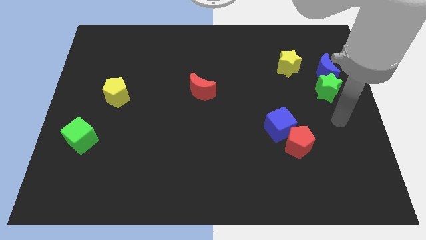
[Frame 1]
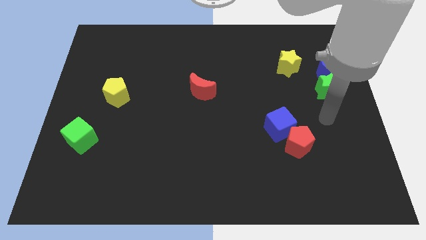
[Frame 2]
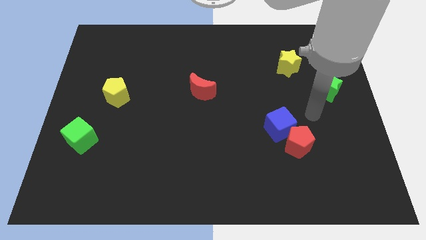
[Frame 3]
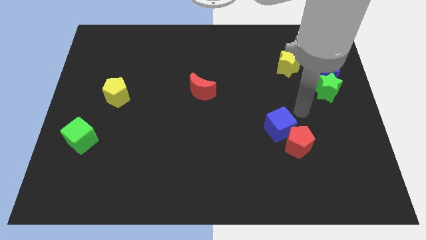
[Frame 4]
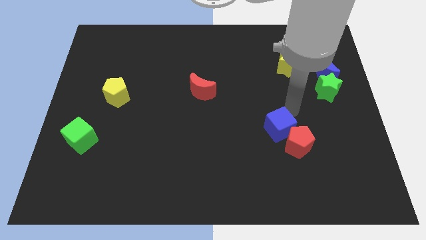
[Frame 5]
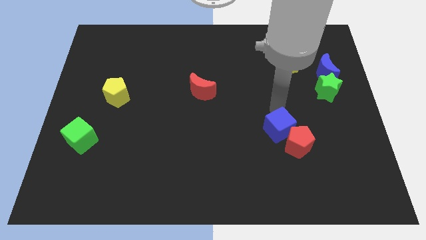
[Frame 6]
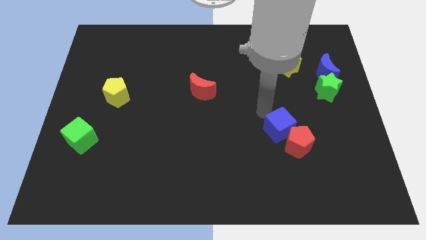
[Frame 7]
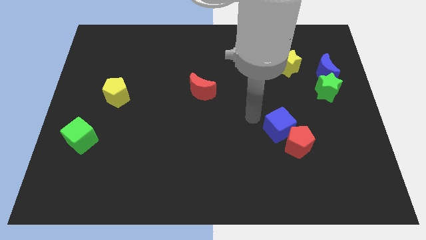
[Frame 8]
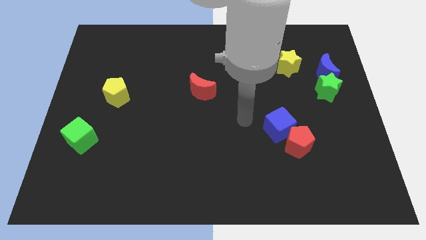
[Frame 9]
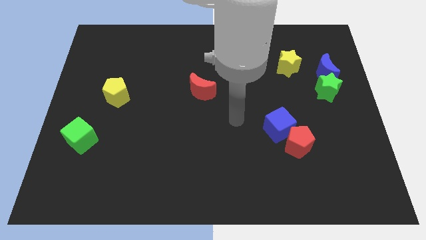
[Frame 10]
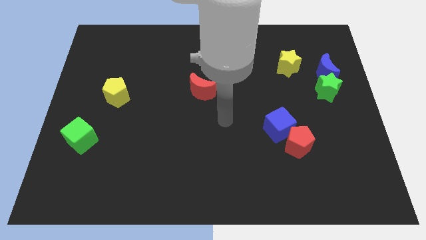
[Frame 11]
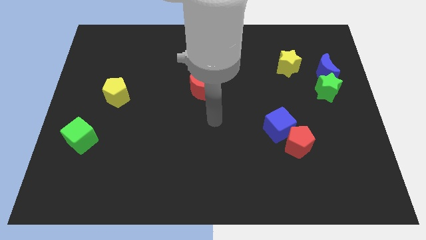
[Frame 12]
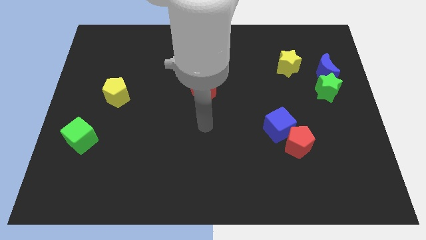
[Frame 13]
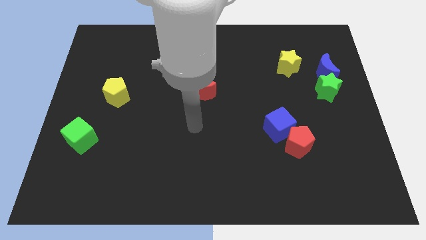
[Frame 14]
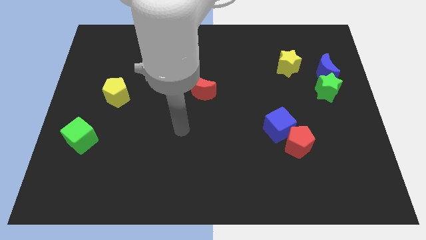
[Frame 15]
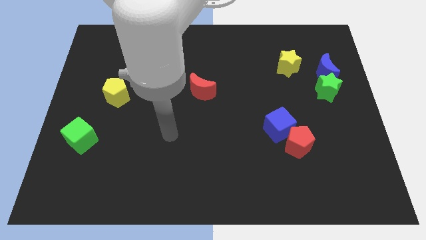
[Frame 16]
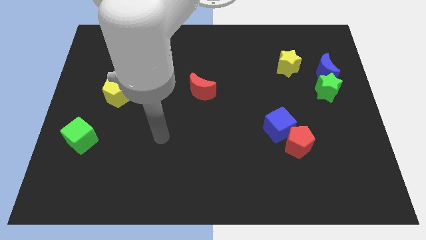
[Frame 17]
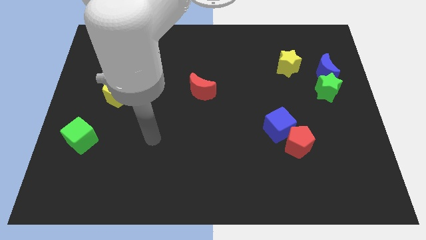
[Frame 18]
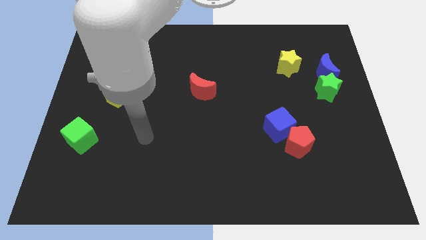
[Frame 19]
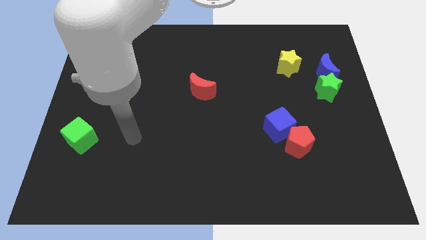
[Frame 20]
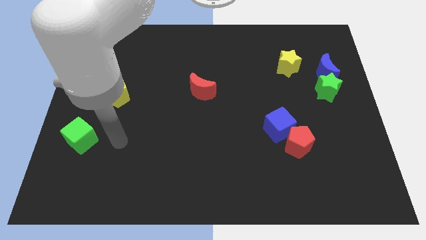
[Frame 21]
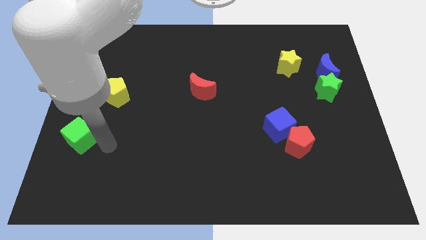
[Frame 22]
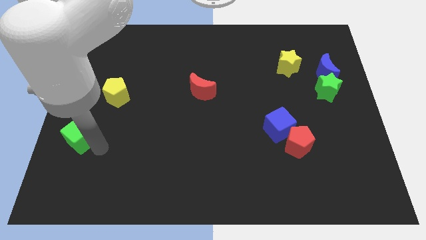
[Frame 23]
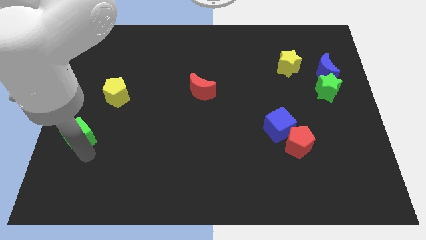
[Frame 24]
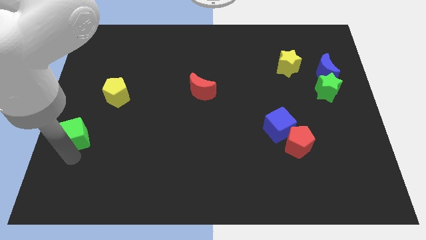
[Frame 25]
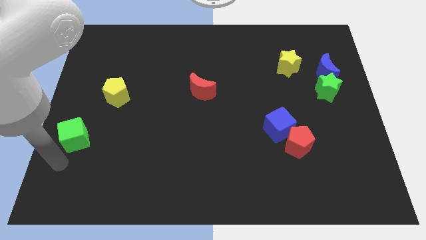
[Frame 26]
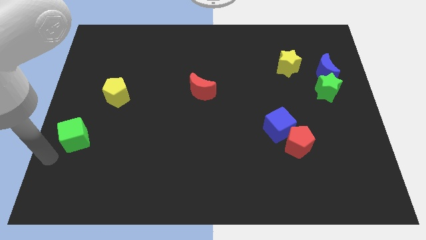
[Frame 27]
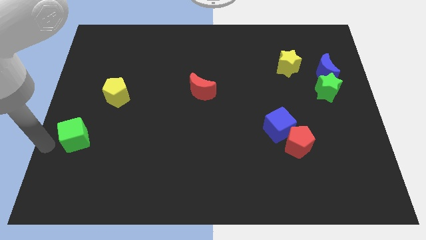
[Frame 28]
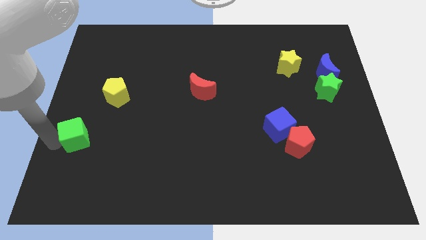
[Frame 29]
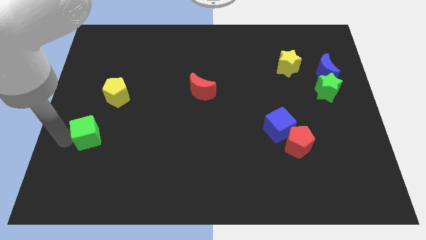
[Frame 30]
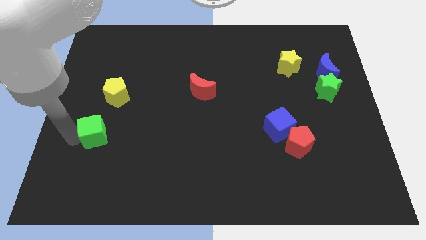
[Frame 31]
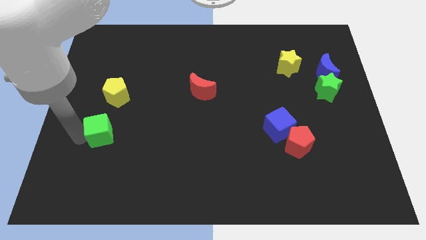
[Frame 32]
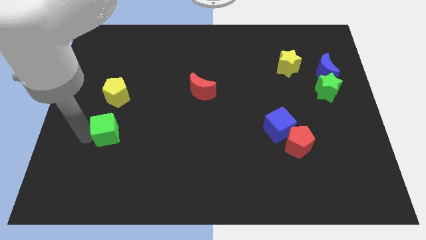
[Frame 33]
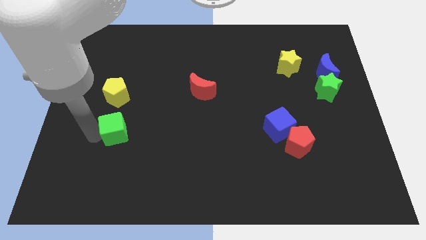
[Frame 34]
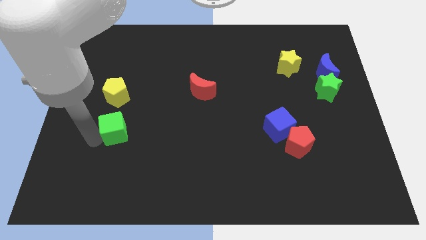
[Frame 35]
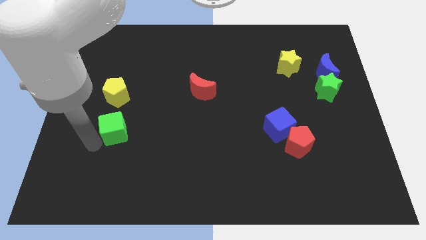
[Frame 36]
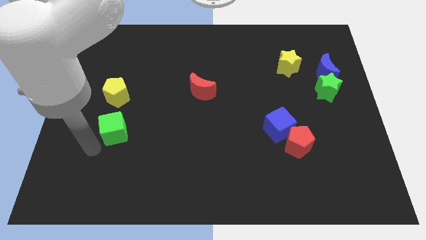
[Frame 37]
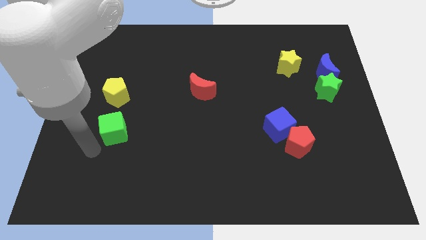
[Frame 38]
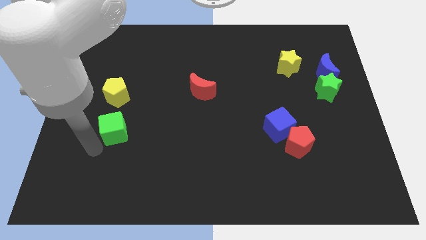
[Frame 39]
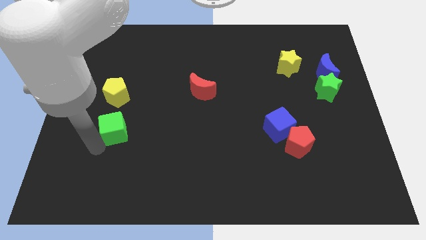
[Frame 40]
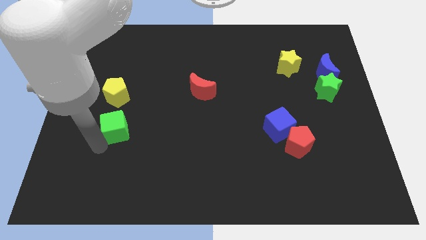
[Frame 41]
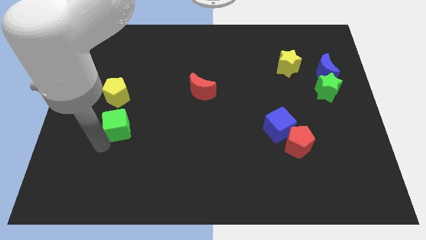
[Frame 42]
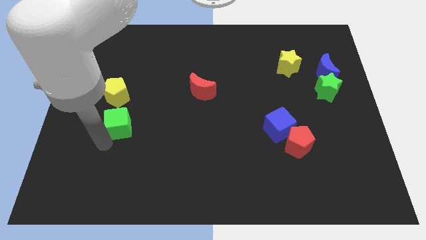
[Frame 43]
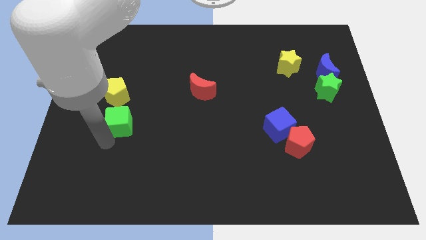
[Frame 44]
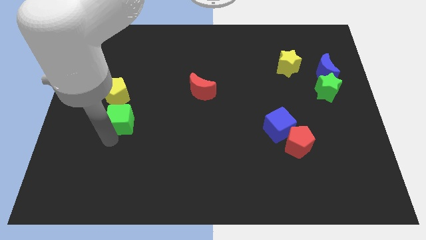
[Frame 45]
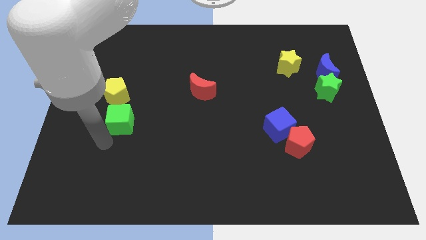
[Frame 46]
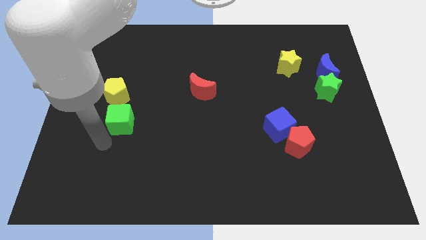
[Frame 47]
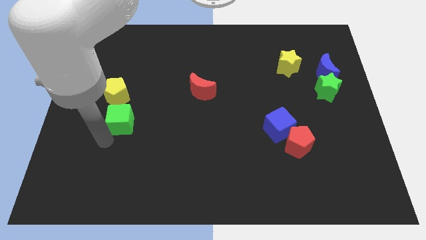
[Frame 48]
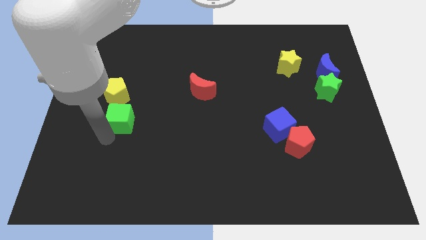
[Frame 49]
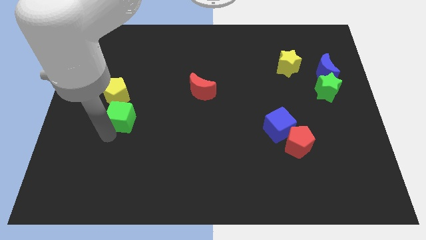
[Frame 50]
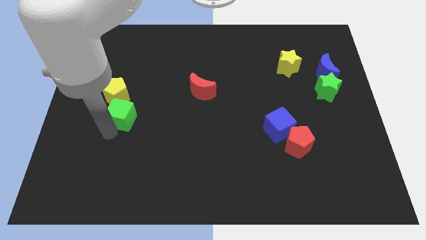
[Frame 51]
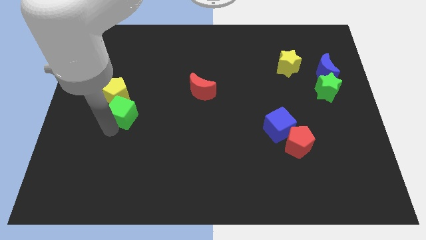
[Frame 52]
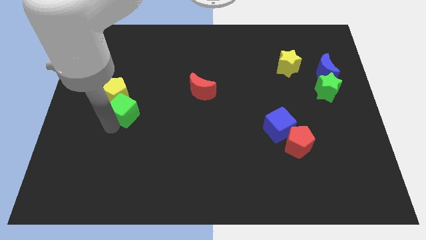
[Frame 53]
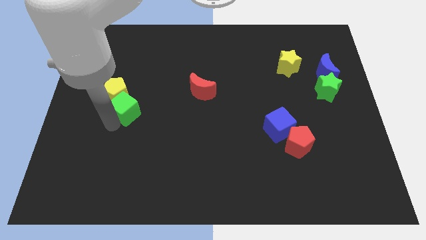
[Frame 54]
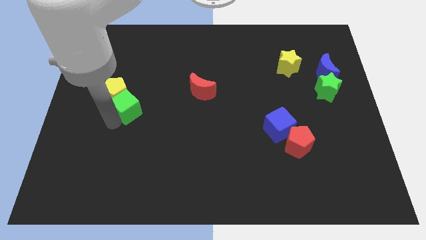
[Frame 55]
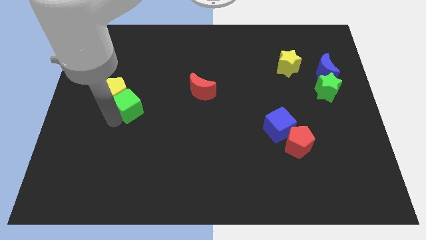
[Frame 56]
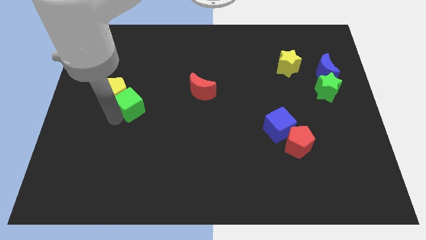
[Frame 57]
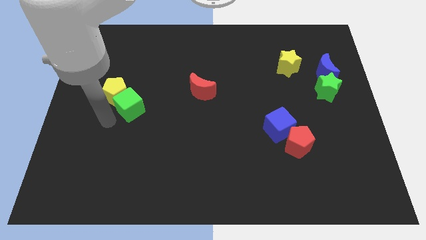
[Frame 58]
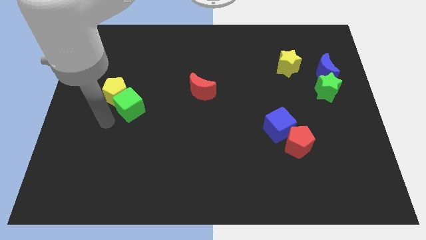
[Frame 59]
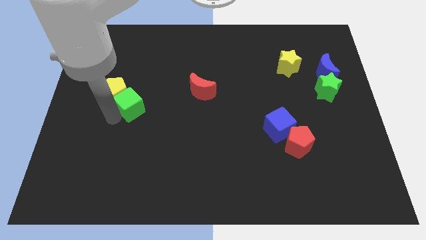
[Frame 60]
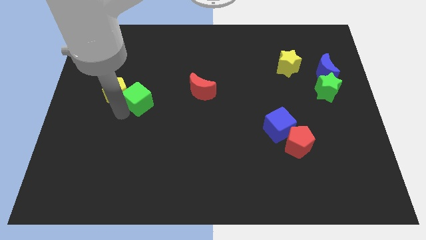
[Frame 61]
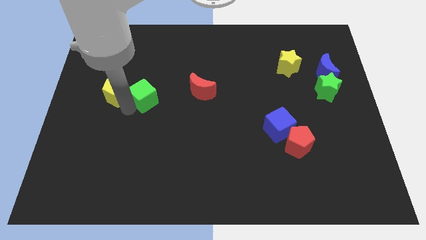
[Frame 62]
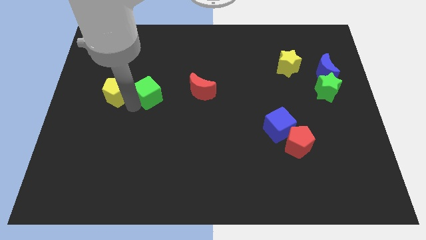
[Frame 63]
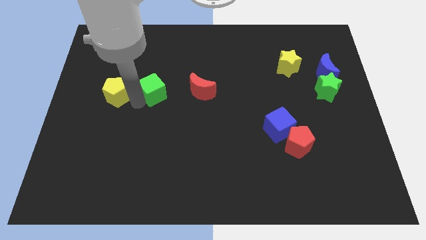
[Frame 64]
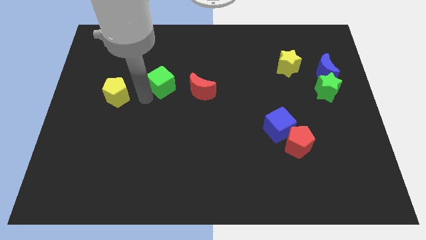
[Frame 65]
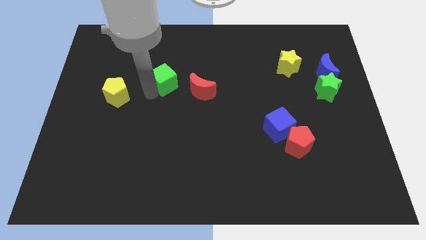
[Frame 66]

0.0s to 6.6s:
push the green cube to the top left of the red moon

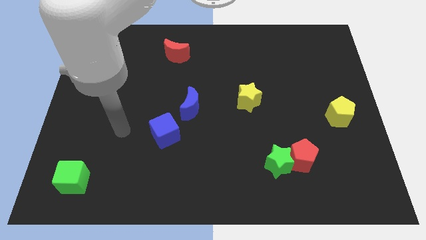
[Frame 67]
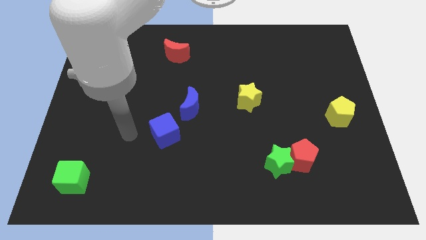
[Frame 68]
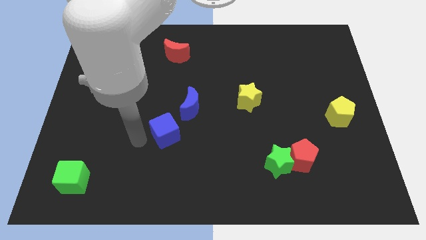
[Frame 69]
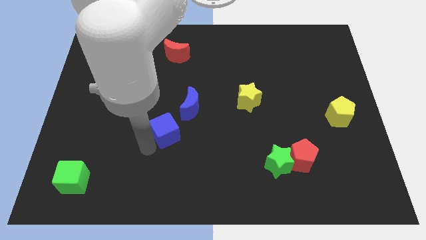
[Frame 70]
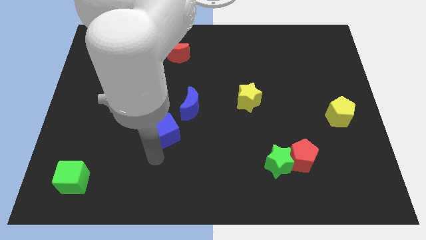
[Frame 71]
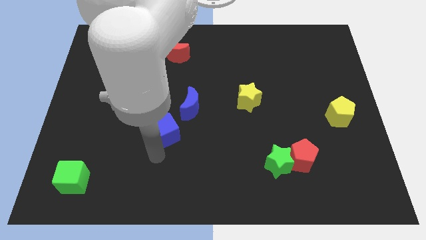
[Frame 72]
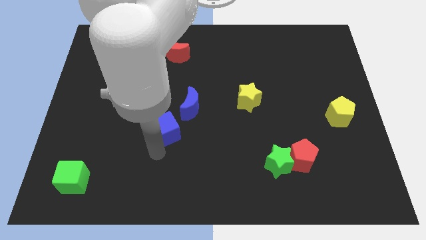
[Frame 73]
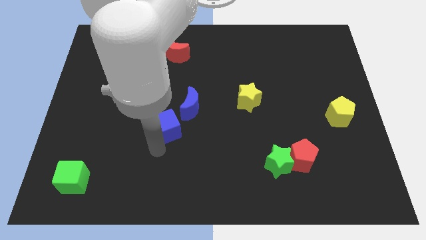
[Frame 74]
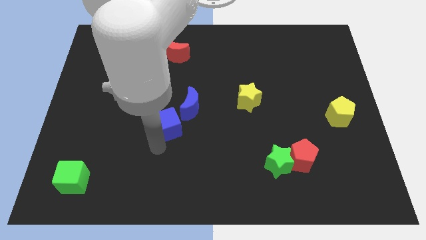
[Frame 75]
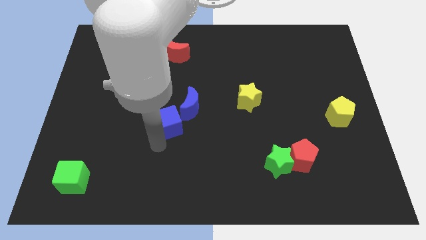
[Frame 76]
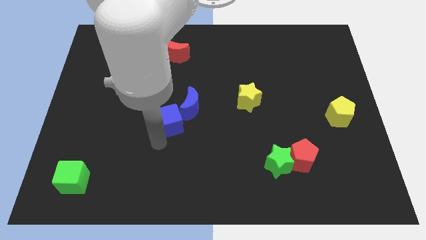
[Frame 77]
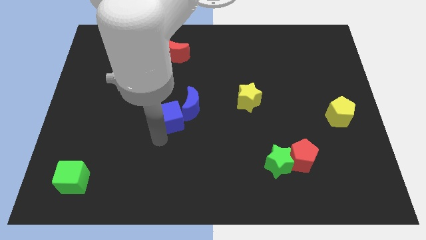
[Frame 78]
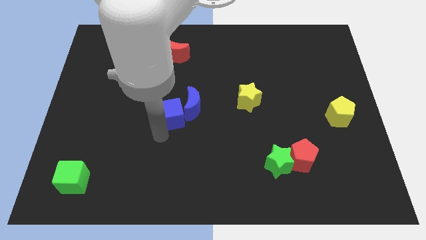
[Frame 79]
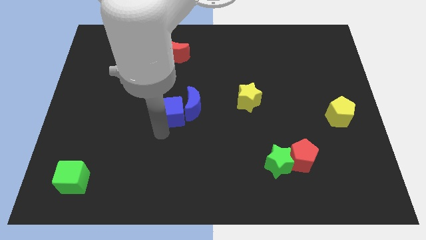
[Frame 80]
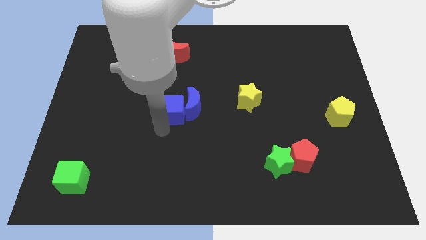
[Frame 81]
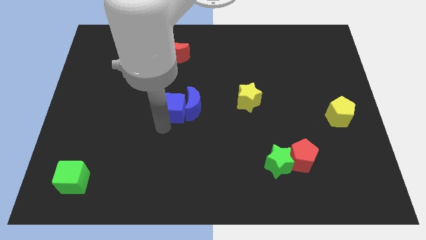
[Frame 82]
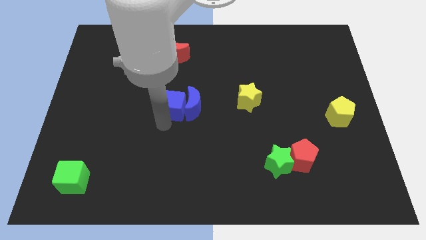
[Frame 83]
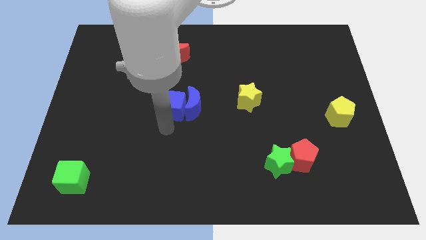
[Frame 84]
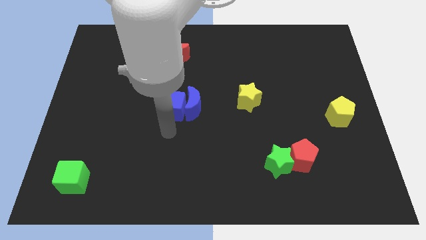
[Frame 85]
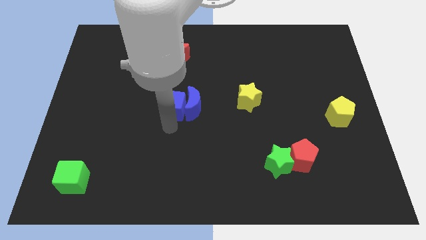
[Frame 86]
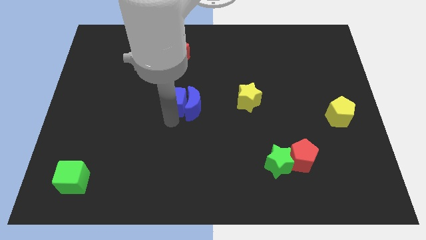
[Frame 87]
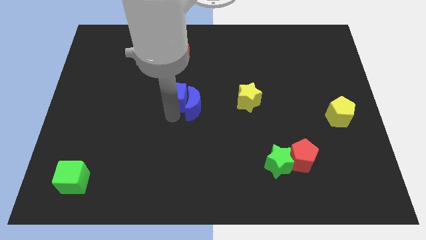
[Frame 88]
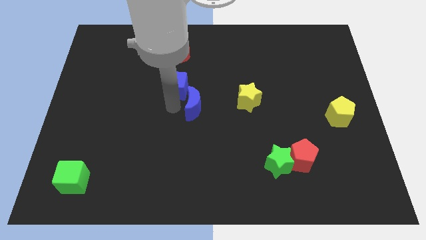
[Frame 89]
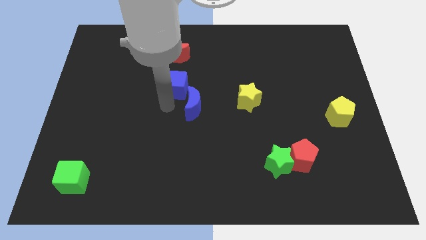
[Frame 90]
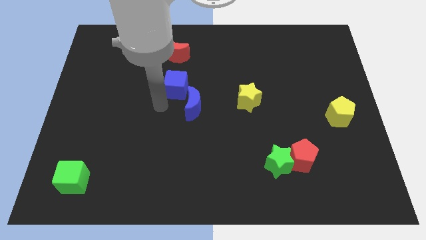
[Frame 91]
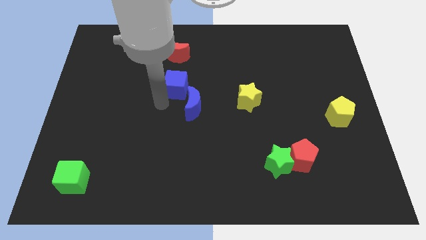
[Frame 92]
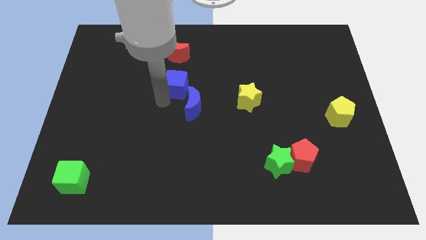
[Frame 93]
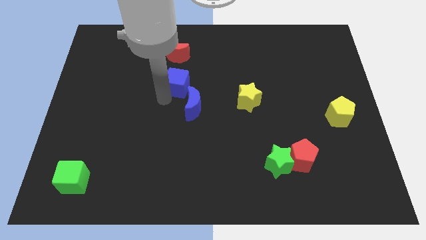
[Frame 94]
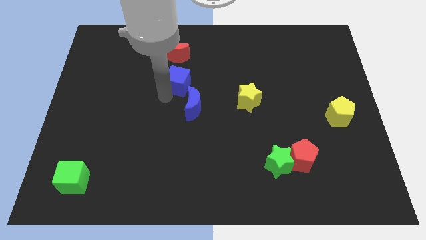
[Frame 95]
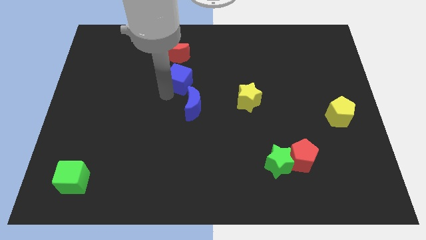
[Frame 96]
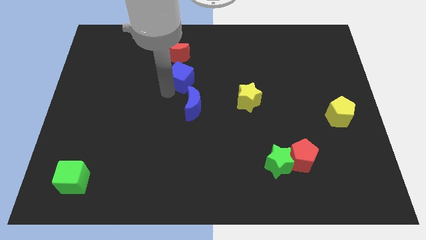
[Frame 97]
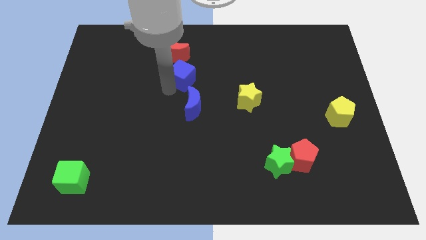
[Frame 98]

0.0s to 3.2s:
push the blue cube diagonally down and to the right of the red moon
